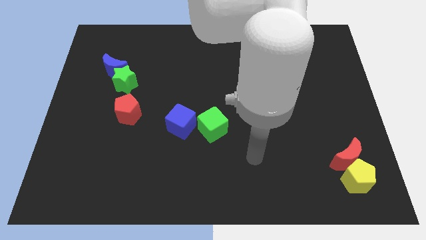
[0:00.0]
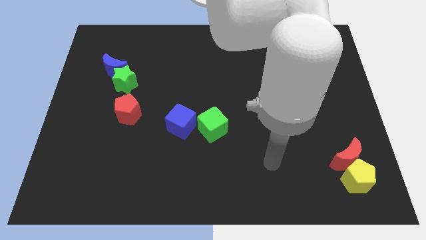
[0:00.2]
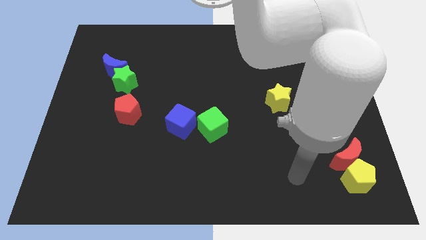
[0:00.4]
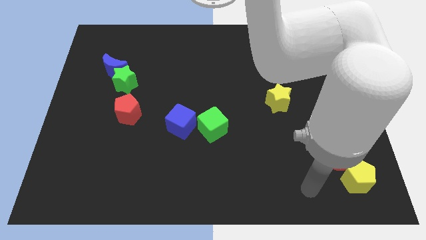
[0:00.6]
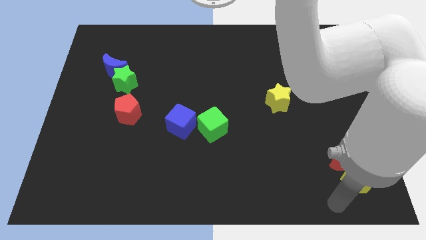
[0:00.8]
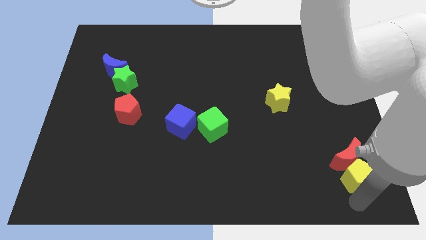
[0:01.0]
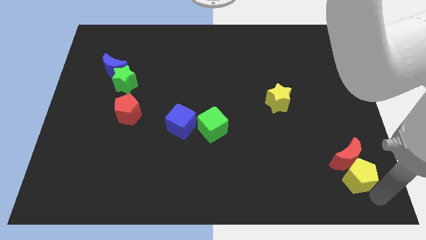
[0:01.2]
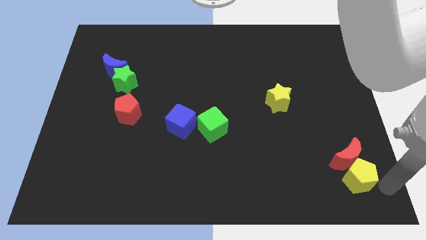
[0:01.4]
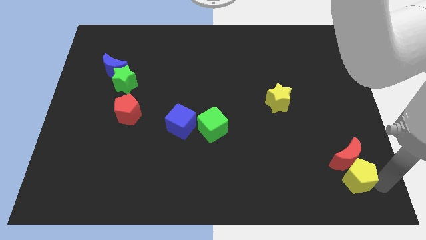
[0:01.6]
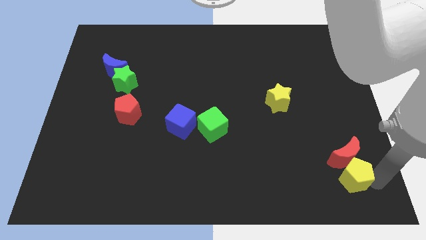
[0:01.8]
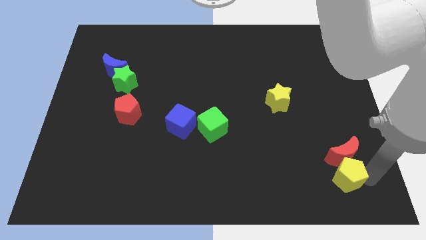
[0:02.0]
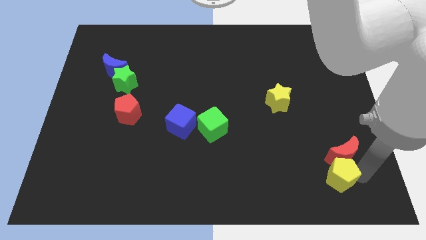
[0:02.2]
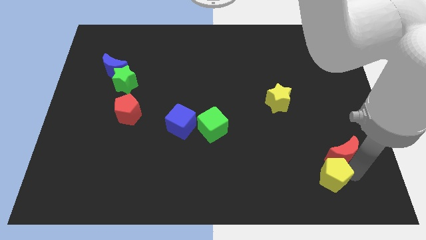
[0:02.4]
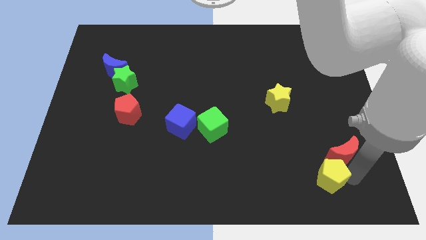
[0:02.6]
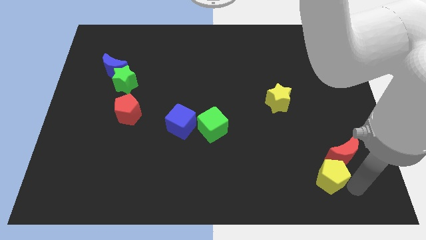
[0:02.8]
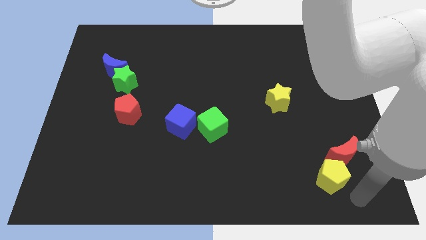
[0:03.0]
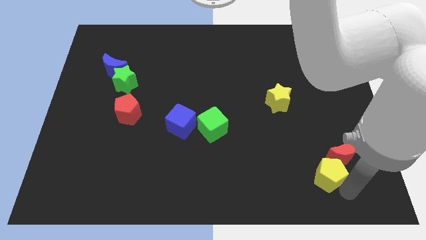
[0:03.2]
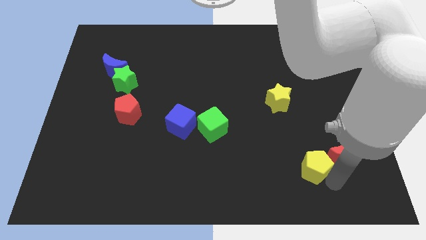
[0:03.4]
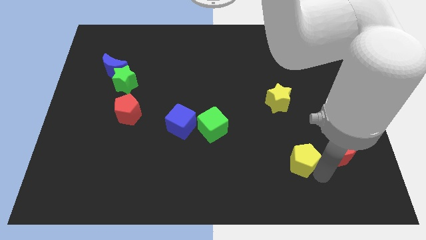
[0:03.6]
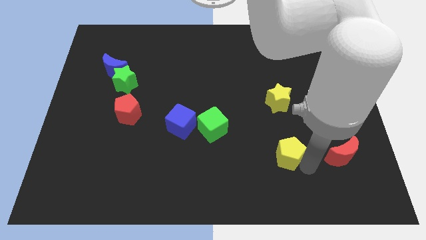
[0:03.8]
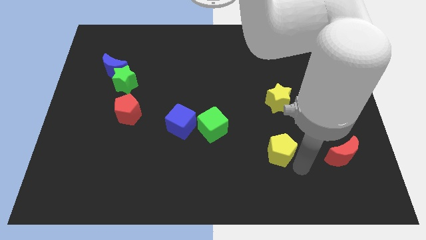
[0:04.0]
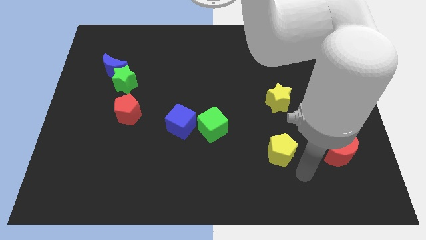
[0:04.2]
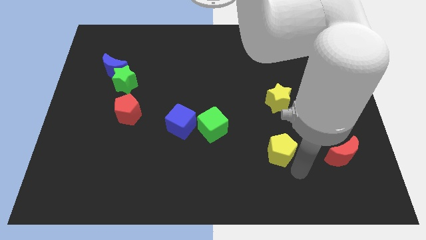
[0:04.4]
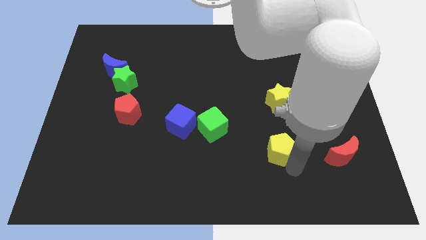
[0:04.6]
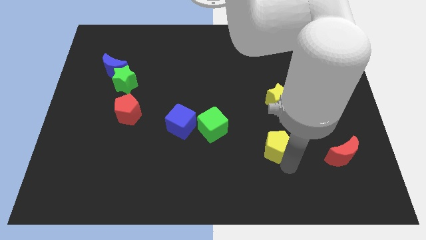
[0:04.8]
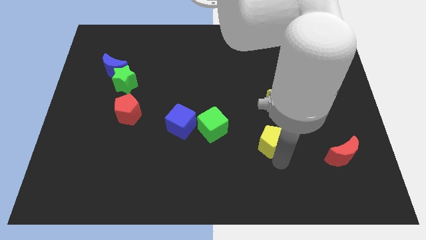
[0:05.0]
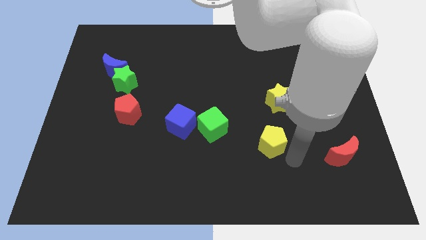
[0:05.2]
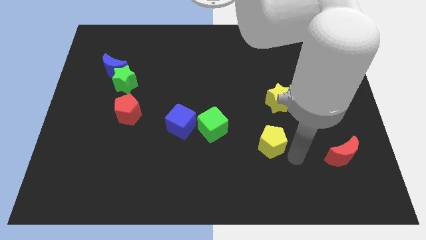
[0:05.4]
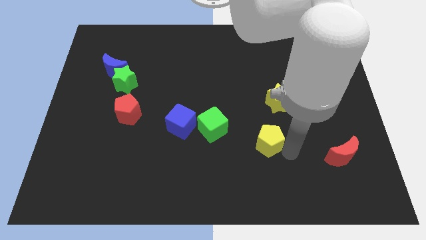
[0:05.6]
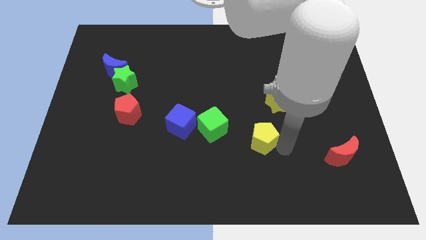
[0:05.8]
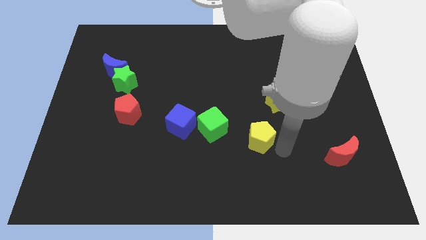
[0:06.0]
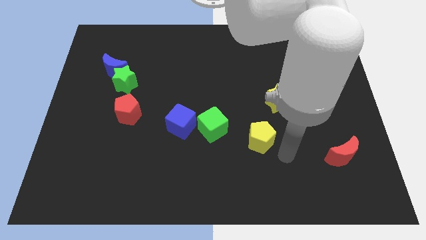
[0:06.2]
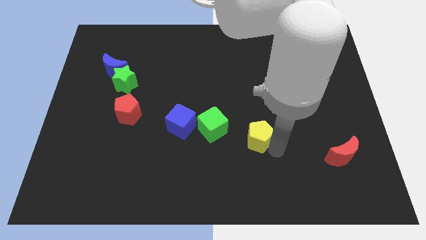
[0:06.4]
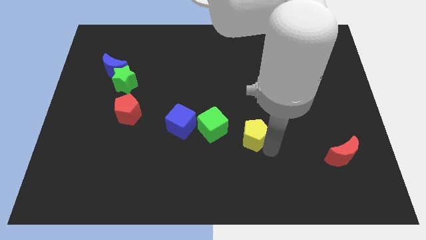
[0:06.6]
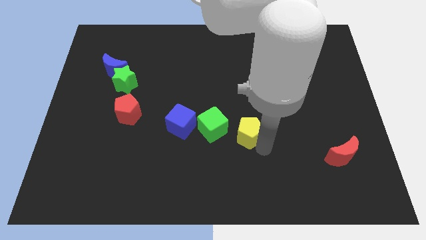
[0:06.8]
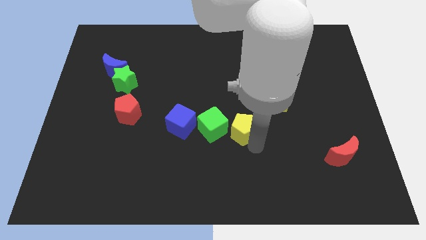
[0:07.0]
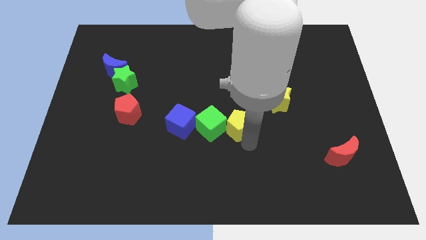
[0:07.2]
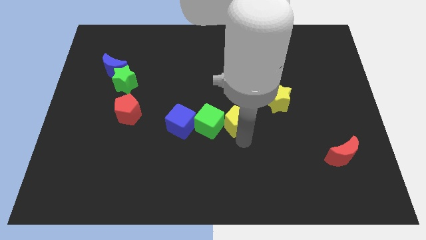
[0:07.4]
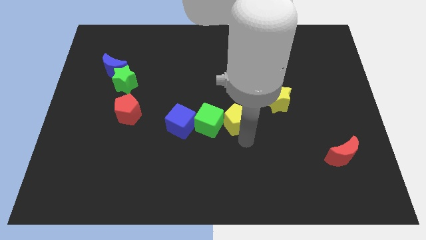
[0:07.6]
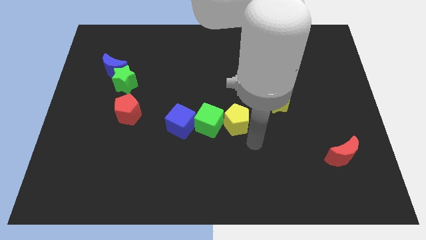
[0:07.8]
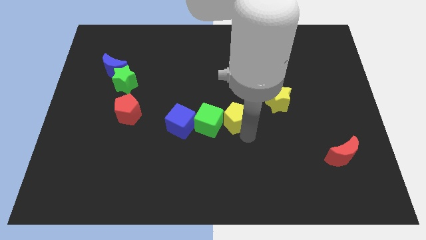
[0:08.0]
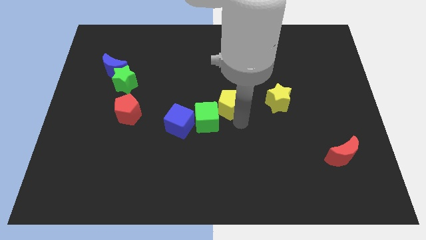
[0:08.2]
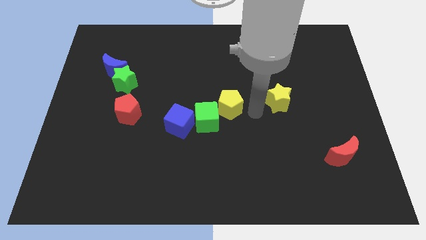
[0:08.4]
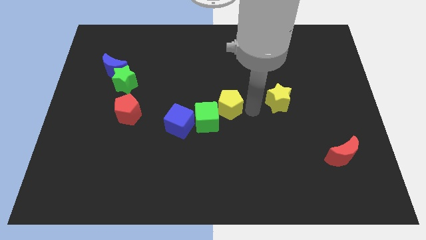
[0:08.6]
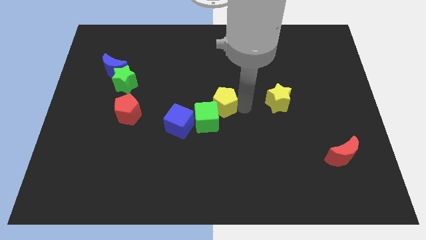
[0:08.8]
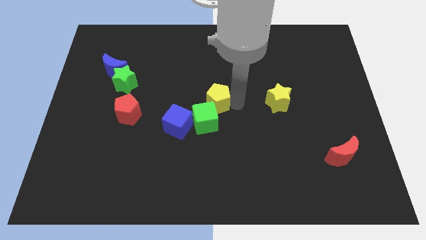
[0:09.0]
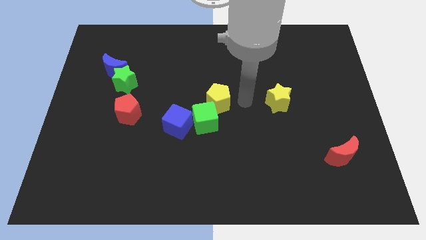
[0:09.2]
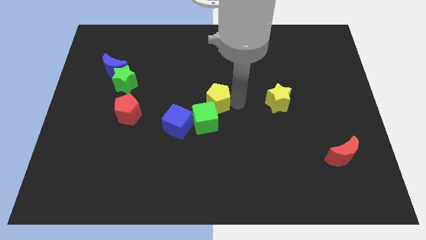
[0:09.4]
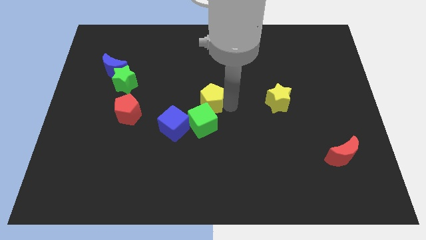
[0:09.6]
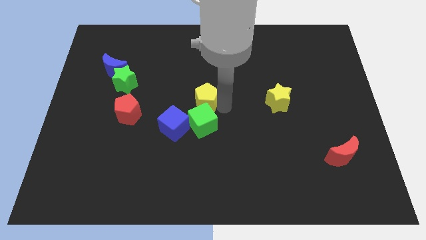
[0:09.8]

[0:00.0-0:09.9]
push the yellow pentagon to the top left side of the green cube

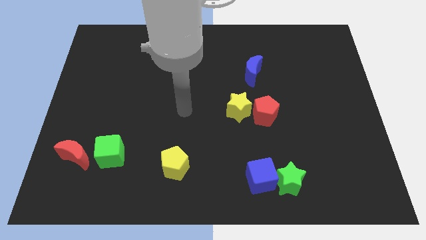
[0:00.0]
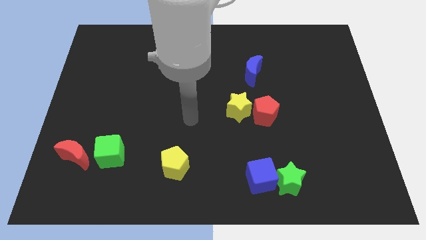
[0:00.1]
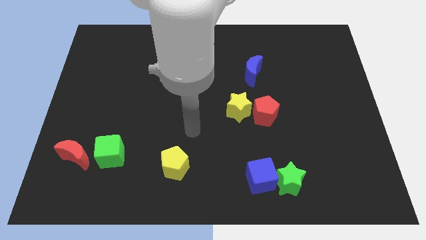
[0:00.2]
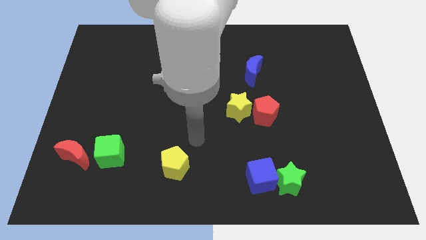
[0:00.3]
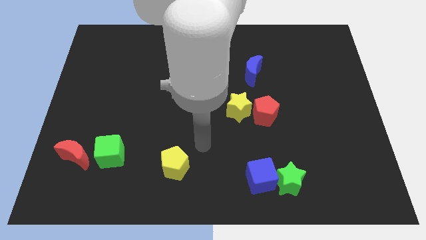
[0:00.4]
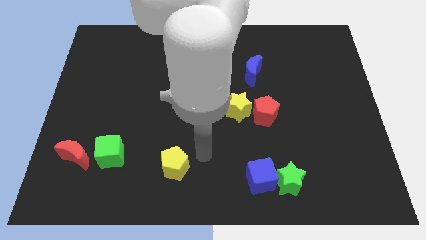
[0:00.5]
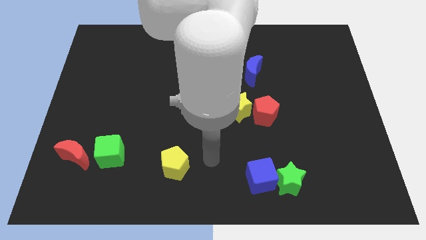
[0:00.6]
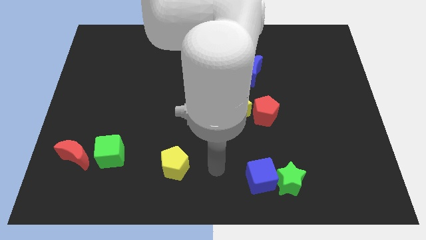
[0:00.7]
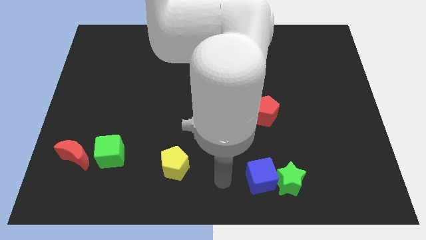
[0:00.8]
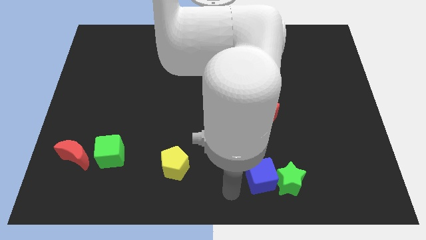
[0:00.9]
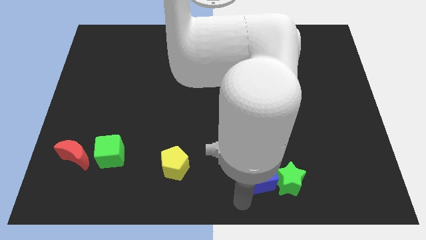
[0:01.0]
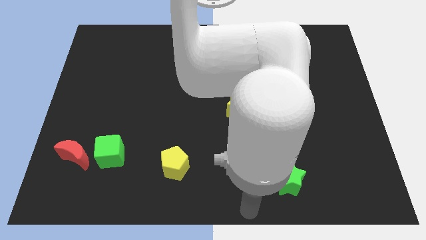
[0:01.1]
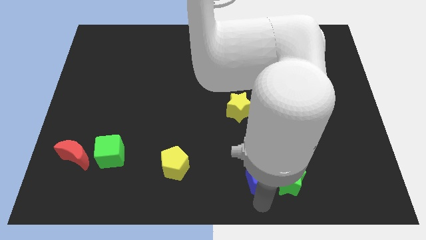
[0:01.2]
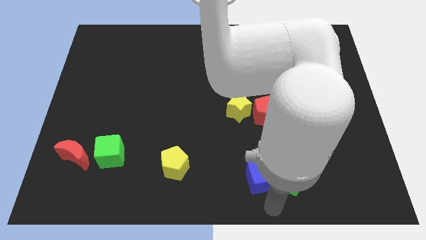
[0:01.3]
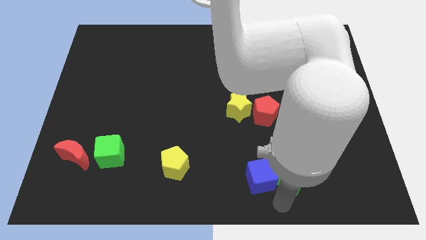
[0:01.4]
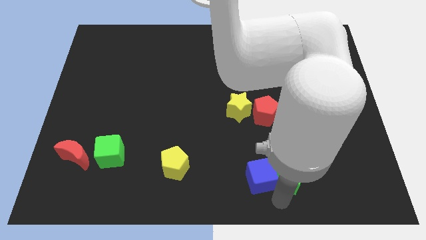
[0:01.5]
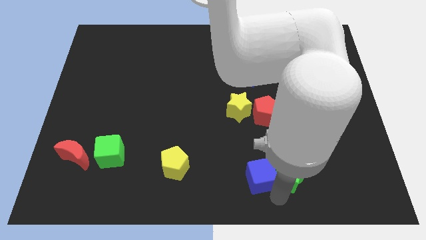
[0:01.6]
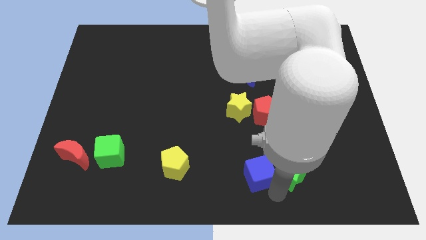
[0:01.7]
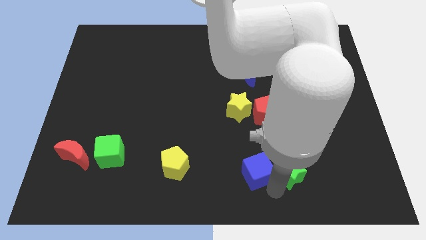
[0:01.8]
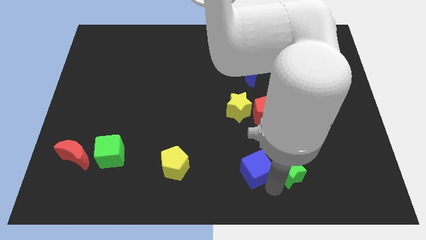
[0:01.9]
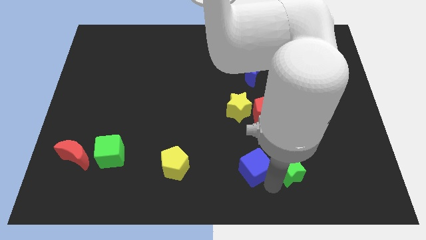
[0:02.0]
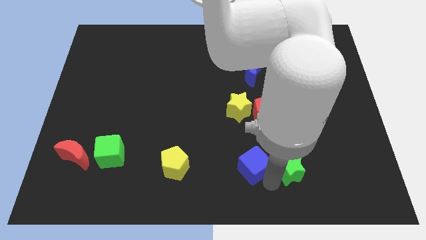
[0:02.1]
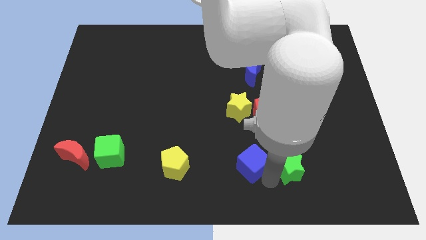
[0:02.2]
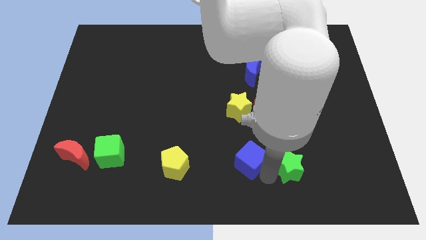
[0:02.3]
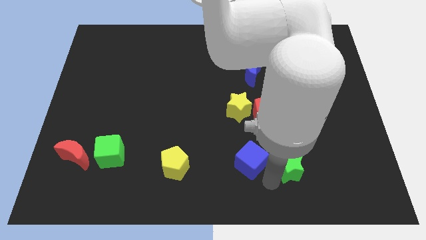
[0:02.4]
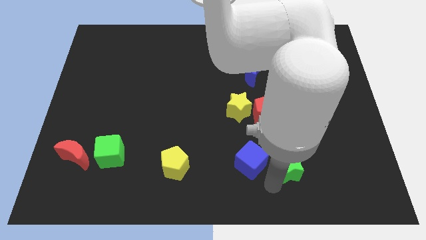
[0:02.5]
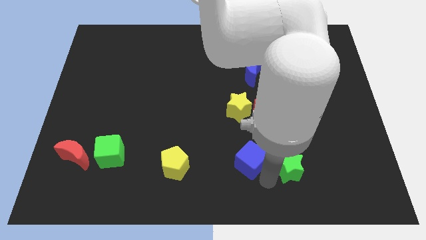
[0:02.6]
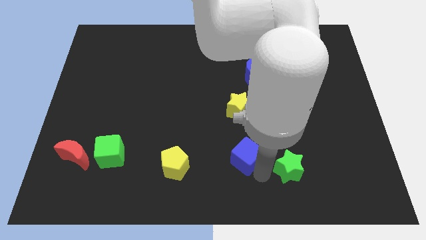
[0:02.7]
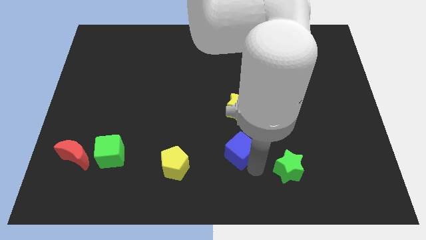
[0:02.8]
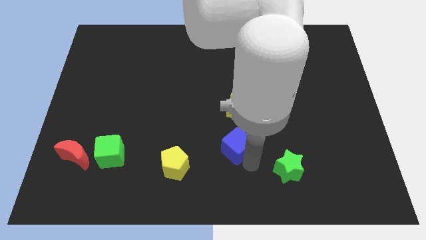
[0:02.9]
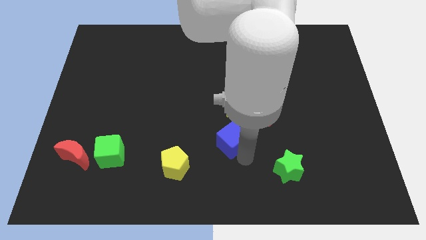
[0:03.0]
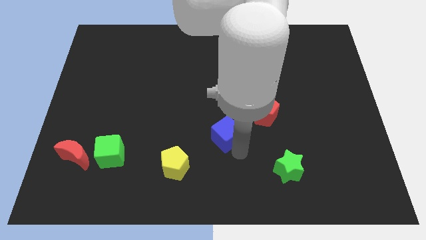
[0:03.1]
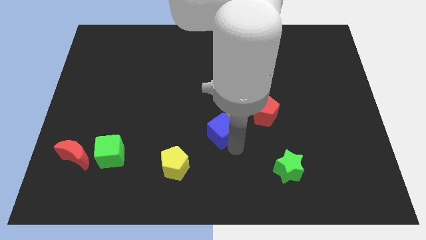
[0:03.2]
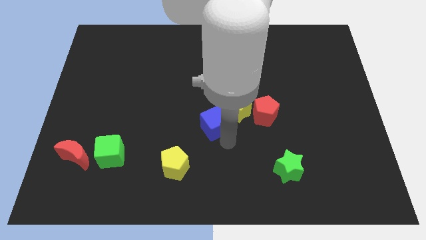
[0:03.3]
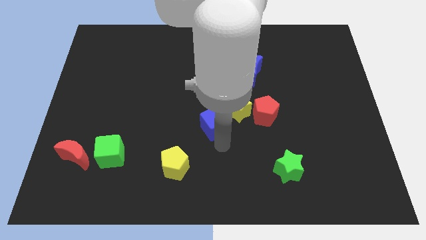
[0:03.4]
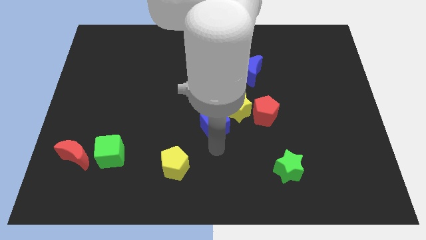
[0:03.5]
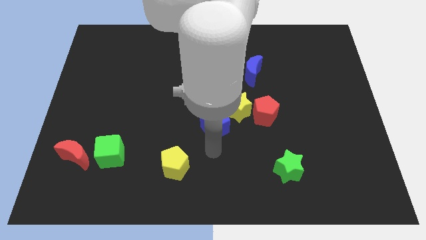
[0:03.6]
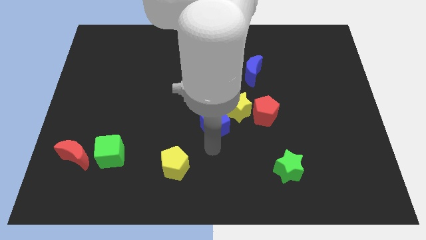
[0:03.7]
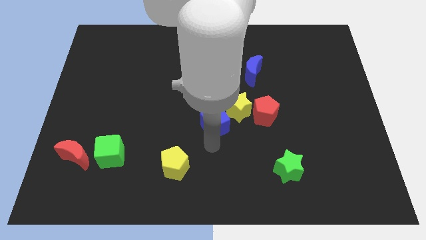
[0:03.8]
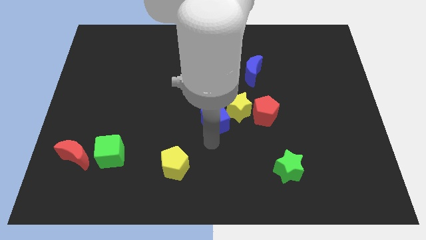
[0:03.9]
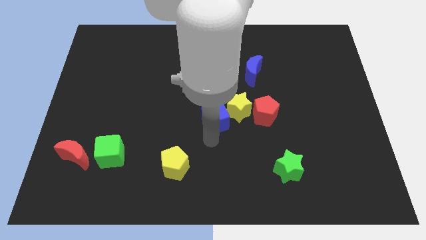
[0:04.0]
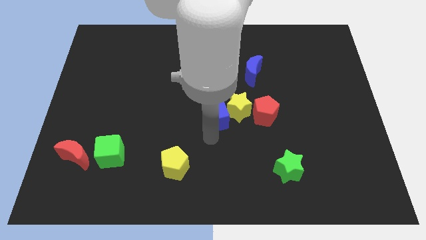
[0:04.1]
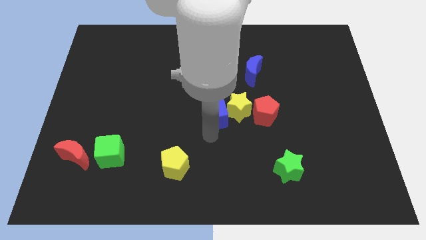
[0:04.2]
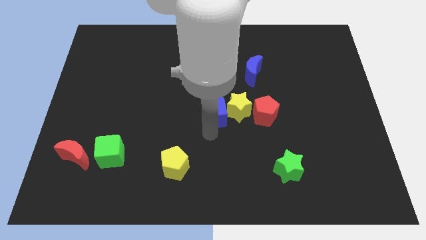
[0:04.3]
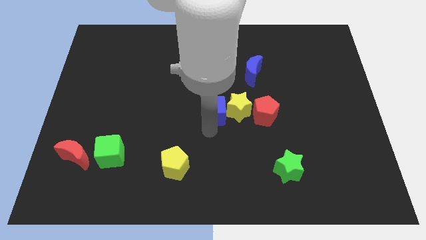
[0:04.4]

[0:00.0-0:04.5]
push the blue cube to the top left side of the yellow star
